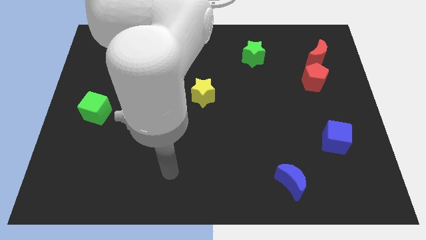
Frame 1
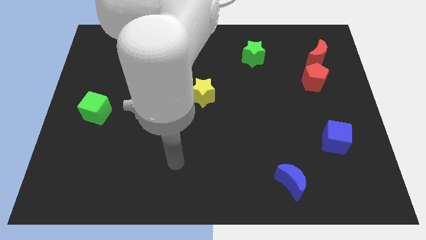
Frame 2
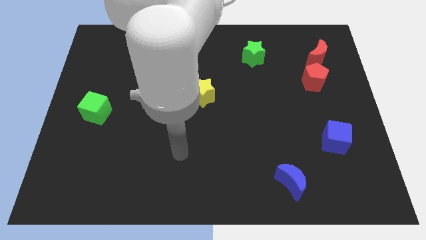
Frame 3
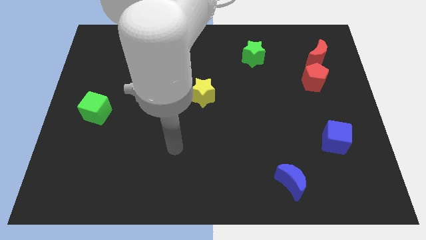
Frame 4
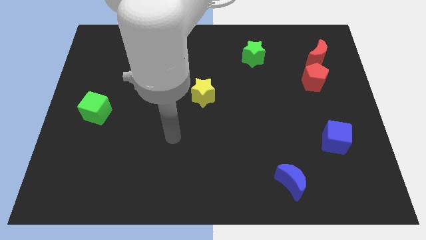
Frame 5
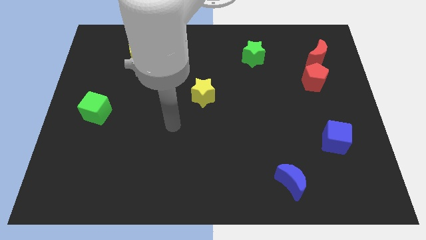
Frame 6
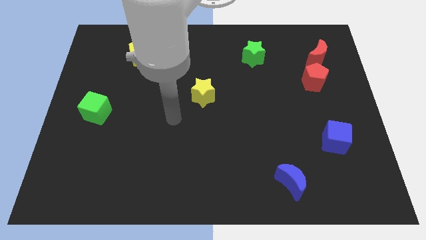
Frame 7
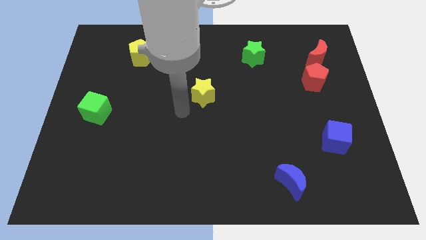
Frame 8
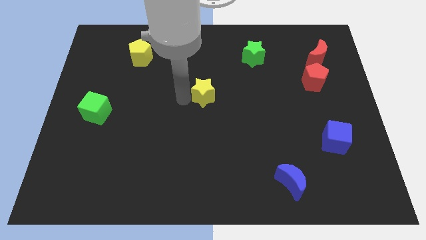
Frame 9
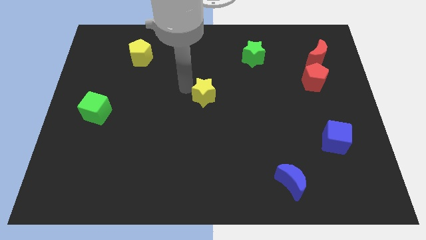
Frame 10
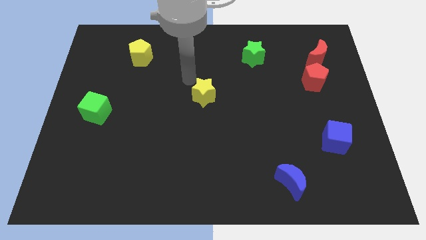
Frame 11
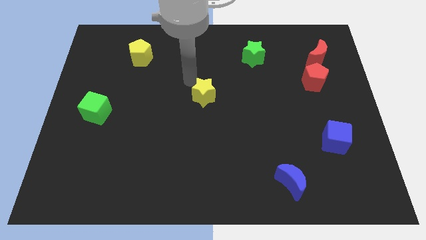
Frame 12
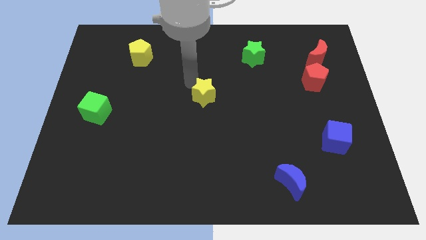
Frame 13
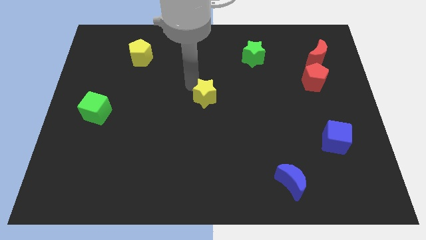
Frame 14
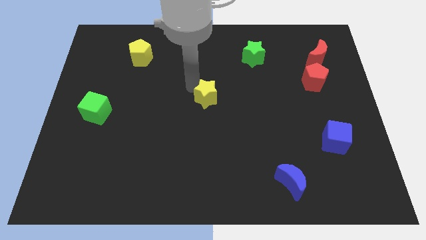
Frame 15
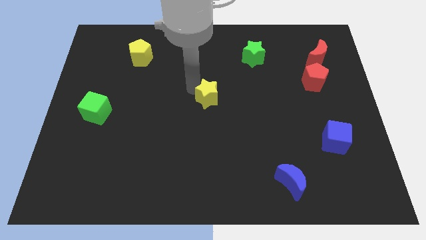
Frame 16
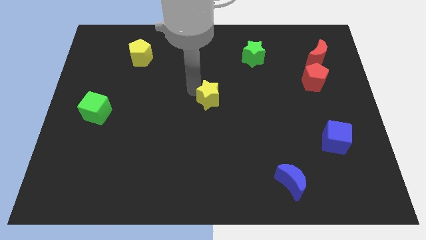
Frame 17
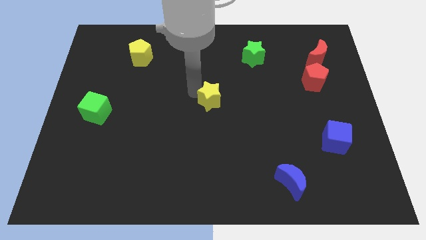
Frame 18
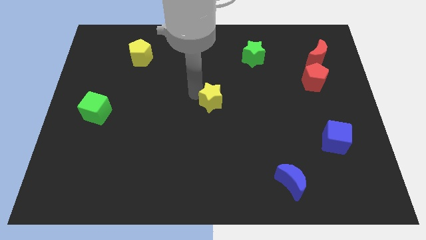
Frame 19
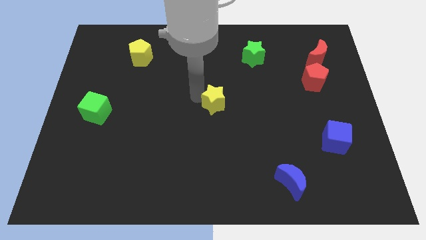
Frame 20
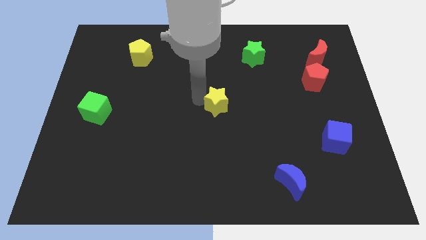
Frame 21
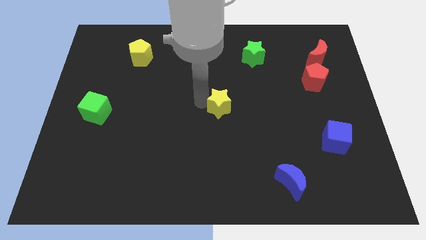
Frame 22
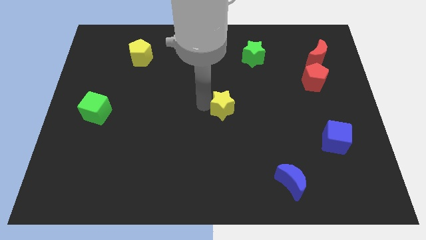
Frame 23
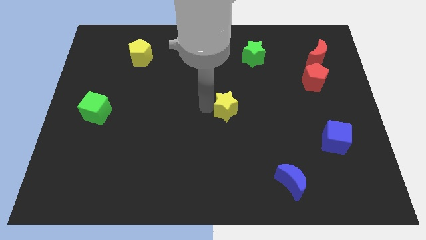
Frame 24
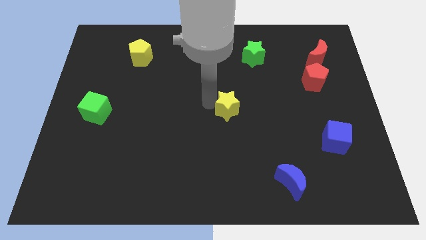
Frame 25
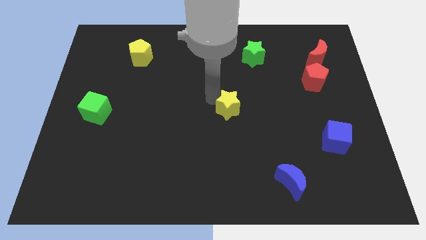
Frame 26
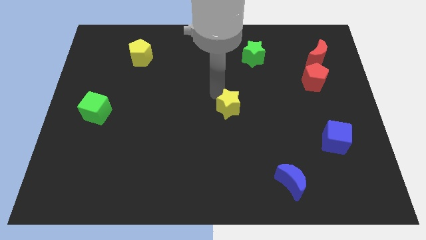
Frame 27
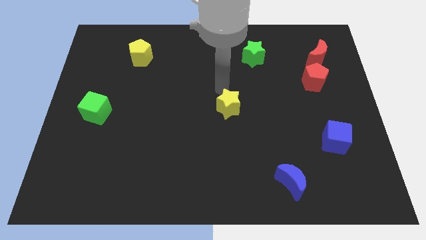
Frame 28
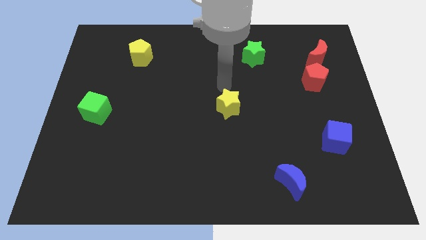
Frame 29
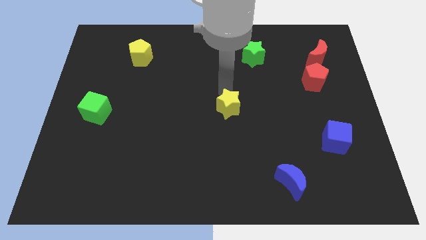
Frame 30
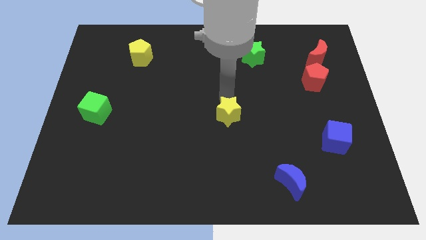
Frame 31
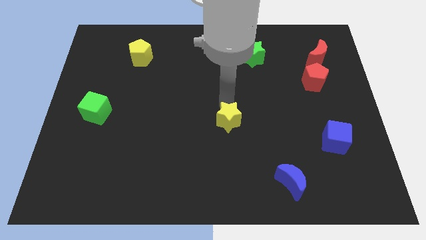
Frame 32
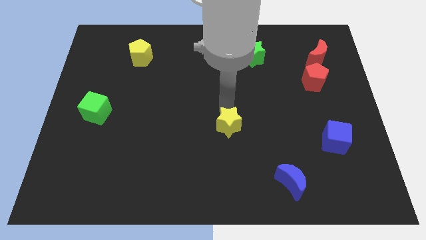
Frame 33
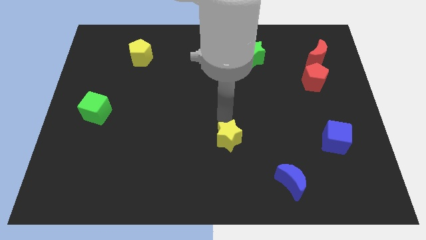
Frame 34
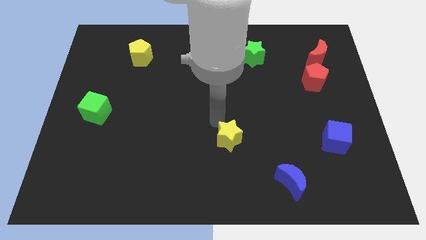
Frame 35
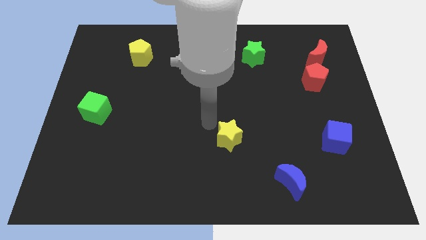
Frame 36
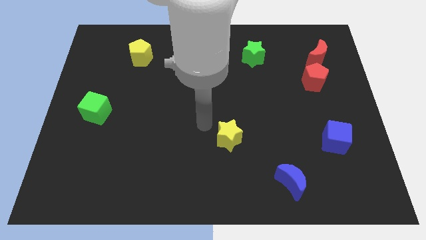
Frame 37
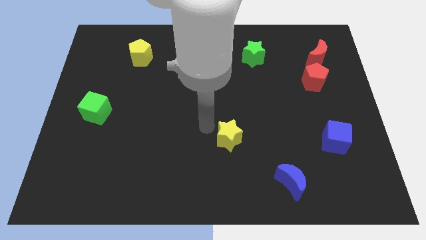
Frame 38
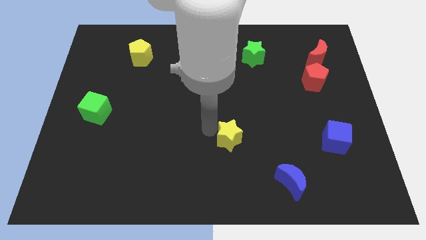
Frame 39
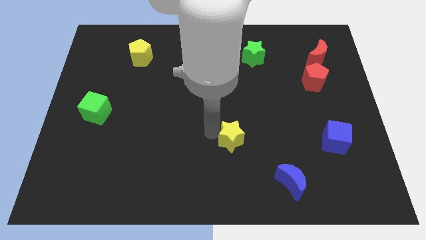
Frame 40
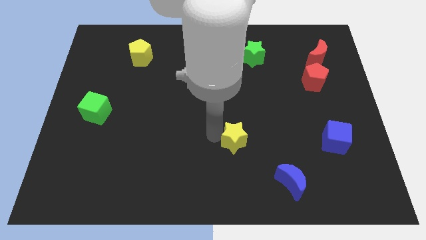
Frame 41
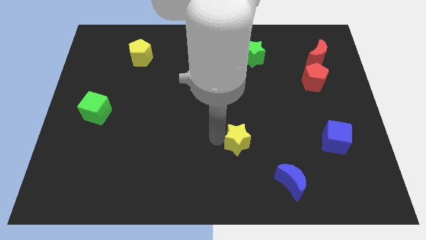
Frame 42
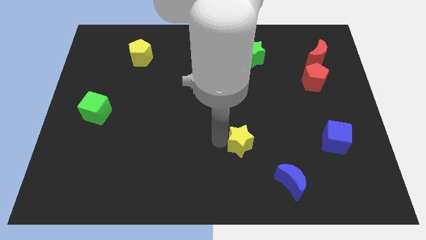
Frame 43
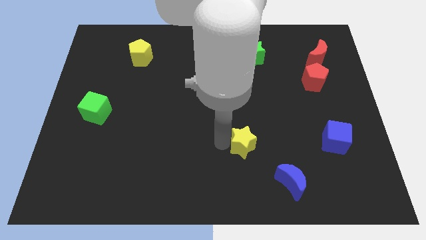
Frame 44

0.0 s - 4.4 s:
slide the yellow star to the top left of the blue moon

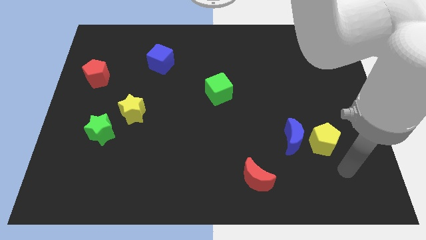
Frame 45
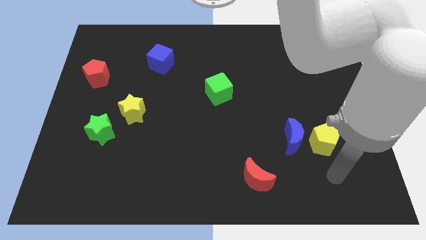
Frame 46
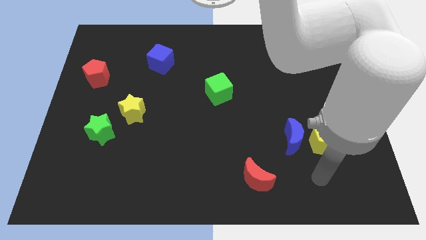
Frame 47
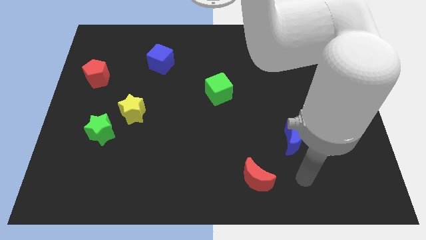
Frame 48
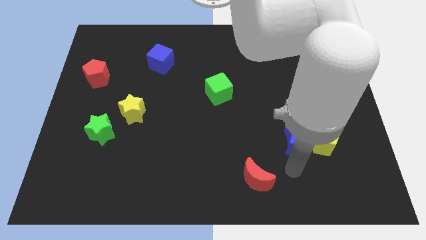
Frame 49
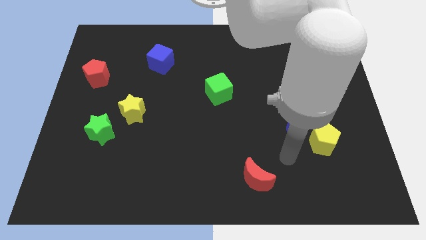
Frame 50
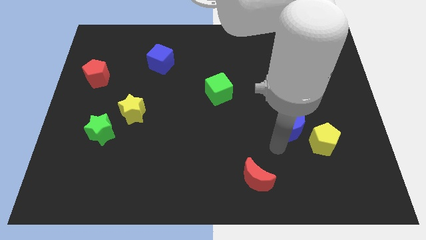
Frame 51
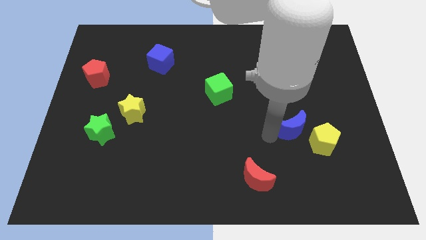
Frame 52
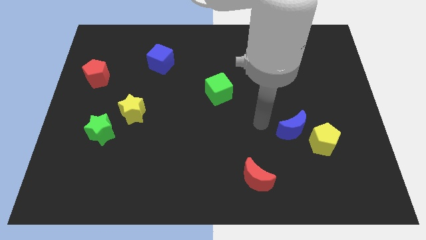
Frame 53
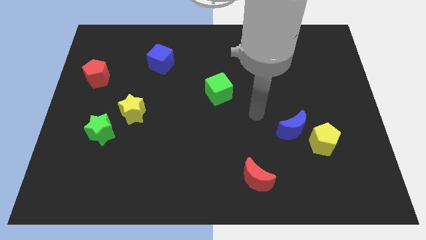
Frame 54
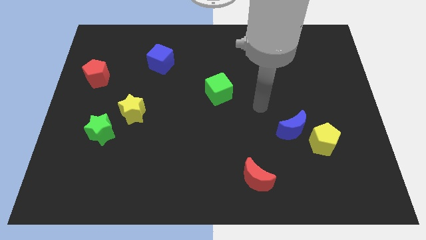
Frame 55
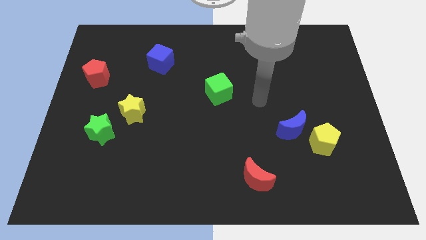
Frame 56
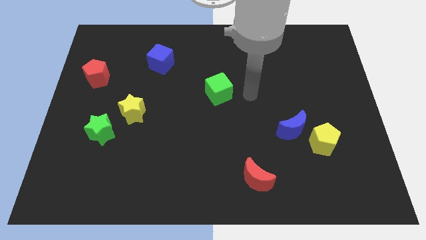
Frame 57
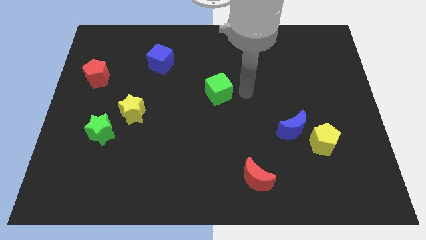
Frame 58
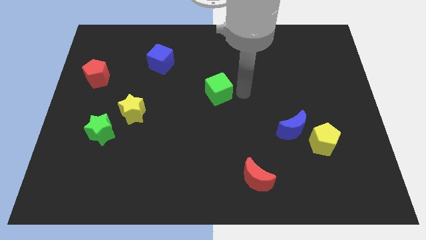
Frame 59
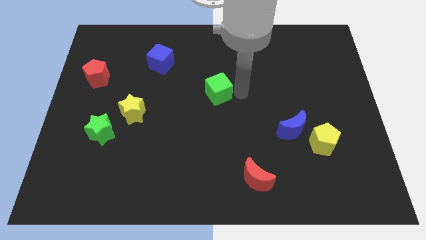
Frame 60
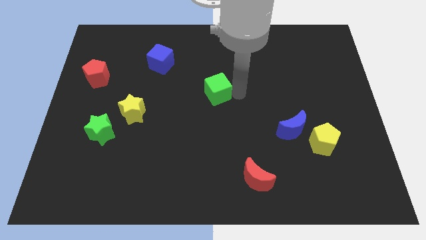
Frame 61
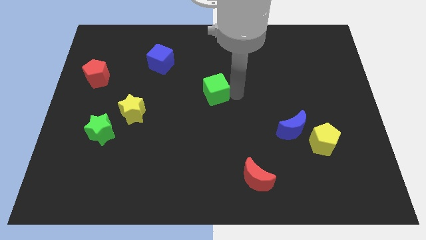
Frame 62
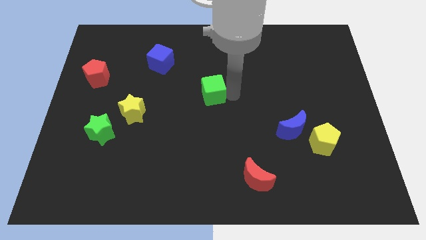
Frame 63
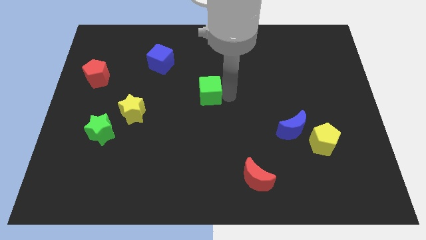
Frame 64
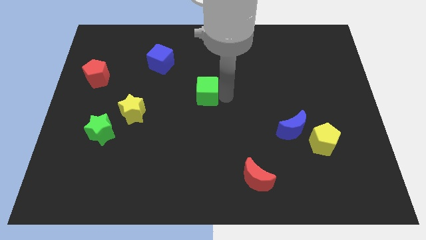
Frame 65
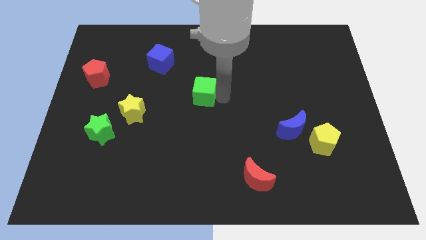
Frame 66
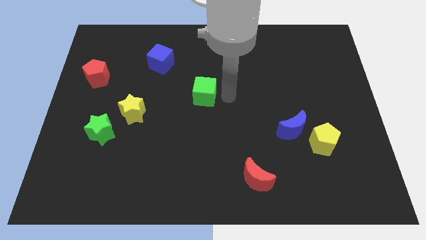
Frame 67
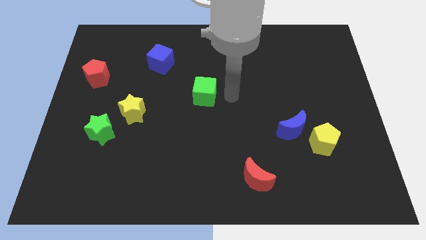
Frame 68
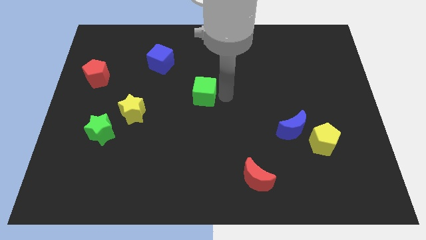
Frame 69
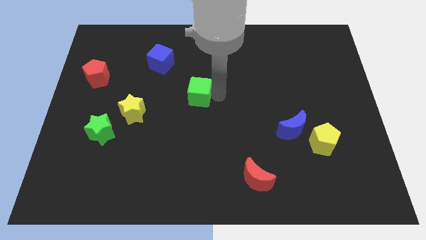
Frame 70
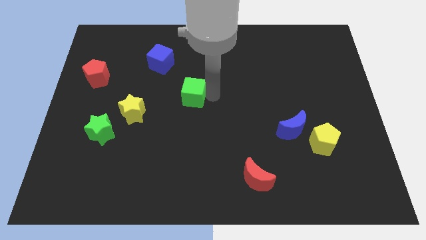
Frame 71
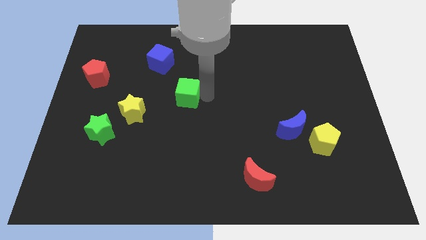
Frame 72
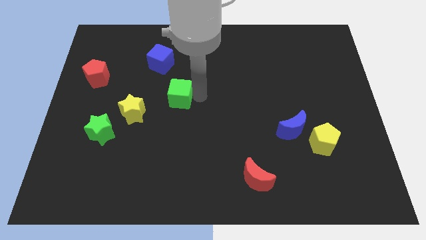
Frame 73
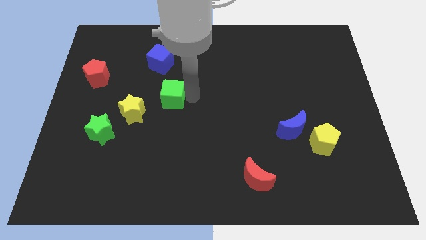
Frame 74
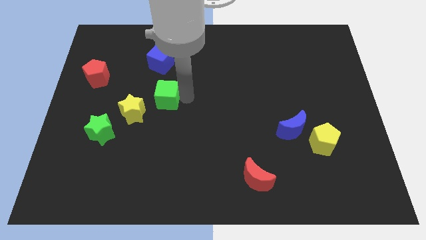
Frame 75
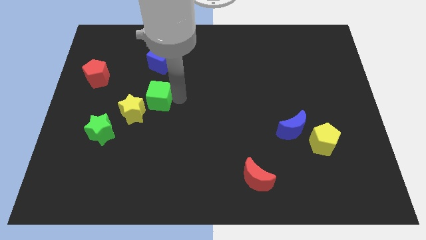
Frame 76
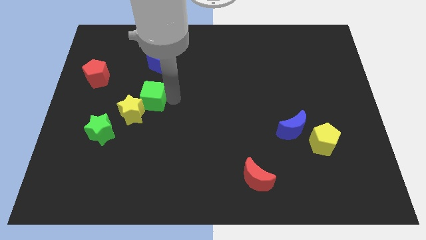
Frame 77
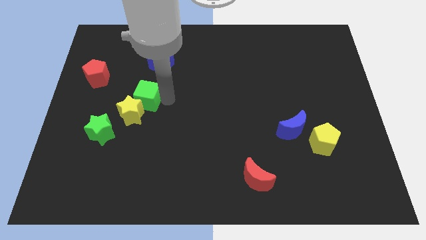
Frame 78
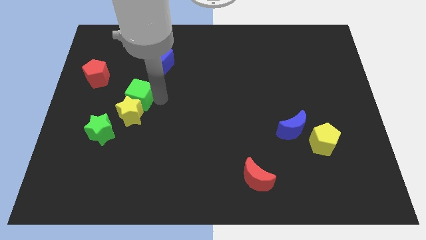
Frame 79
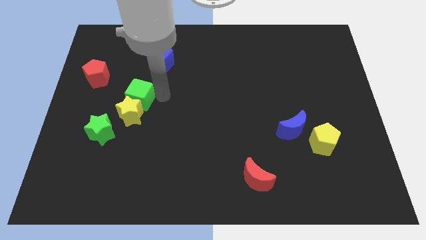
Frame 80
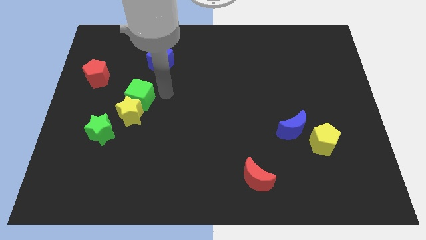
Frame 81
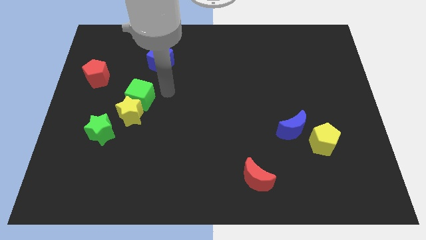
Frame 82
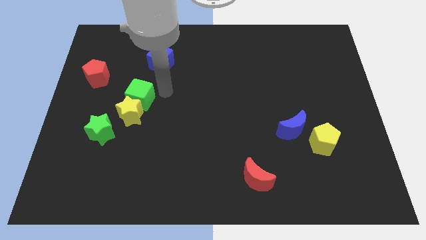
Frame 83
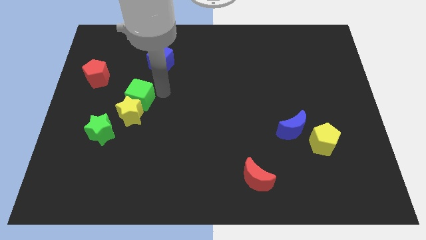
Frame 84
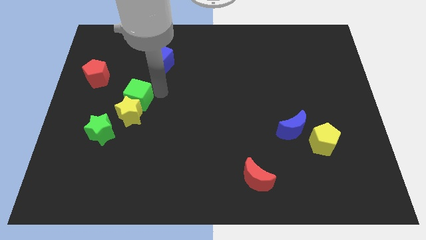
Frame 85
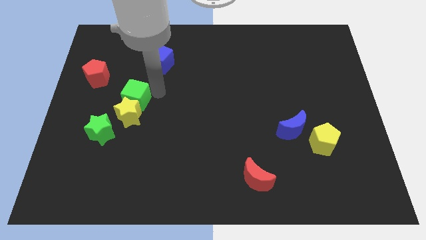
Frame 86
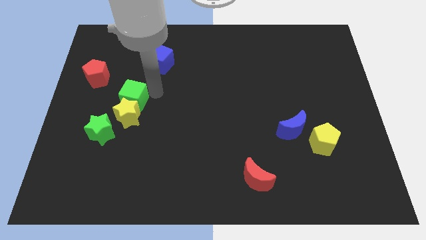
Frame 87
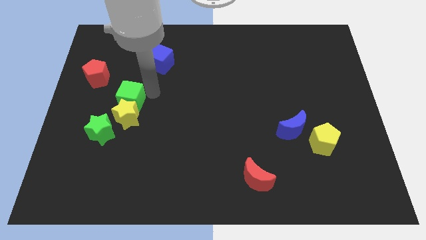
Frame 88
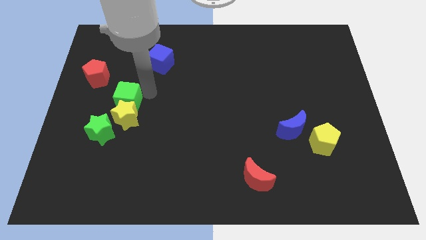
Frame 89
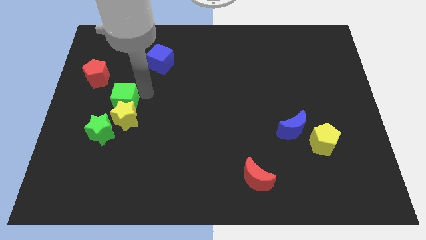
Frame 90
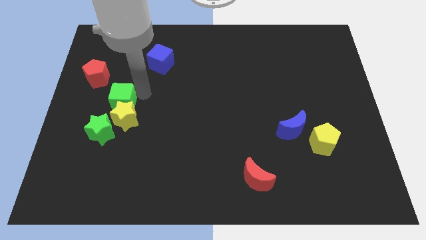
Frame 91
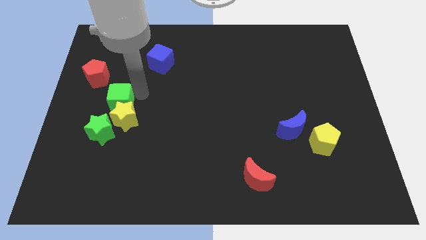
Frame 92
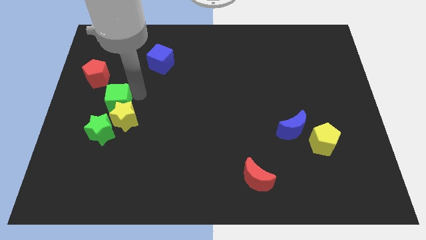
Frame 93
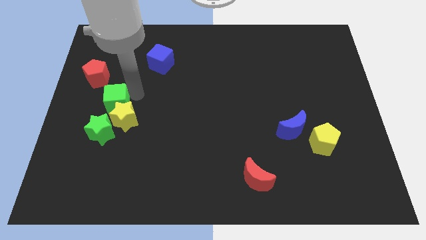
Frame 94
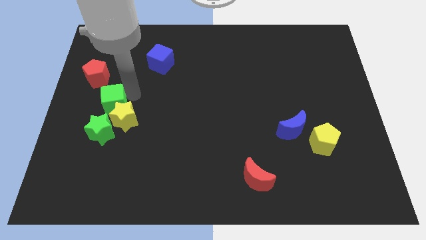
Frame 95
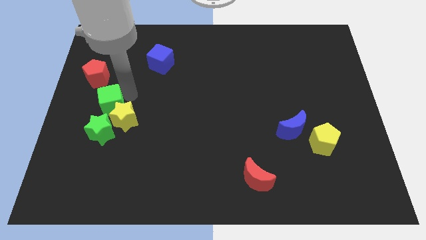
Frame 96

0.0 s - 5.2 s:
slide the green cube below the red pentagon
